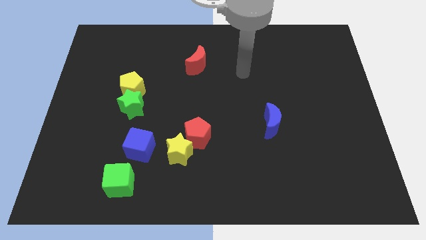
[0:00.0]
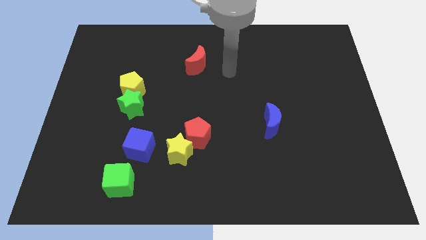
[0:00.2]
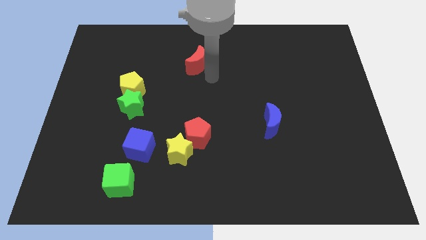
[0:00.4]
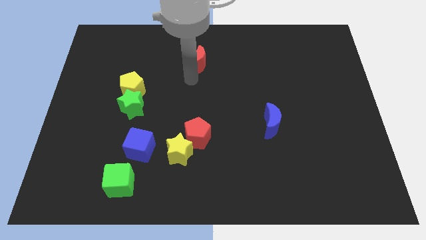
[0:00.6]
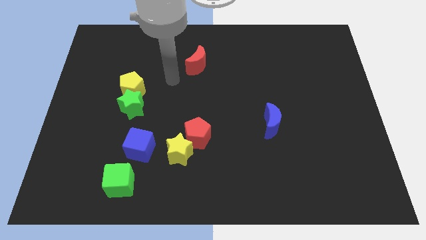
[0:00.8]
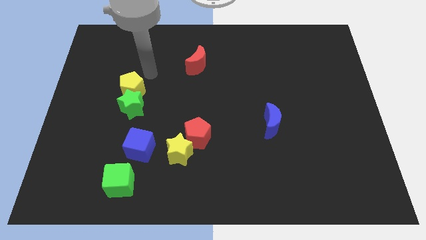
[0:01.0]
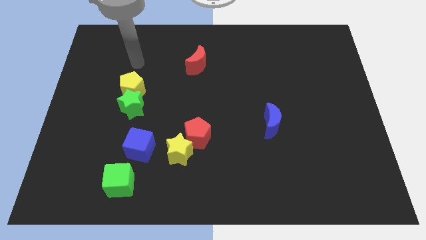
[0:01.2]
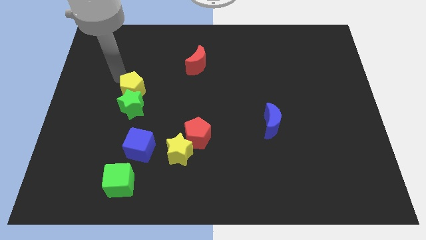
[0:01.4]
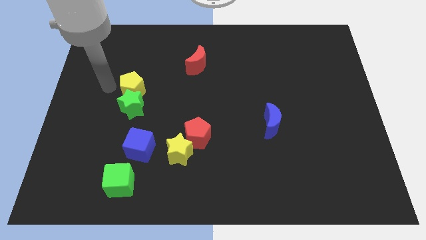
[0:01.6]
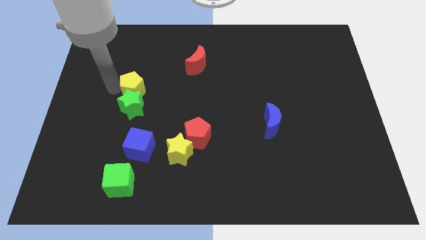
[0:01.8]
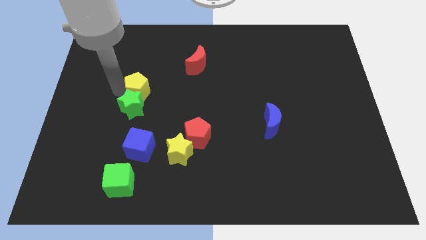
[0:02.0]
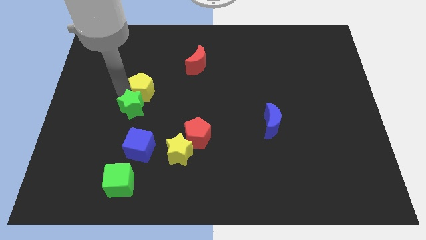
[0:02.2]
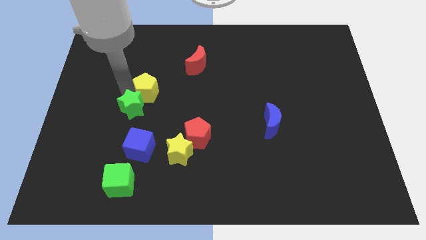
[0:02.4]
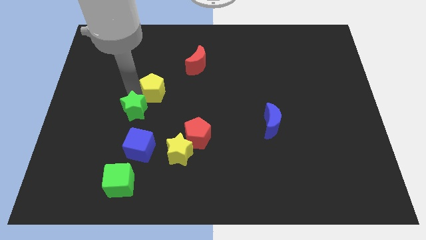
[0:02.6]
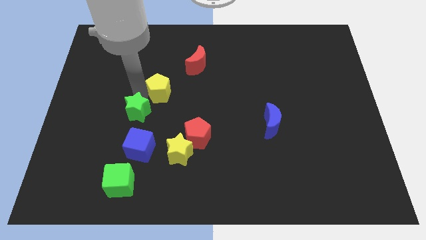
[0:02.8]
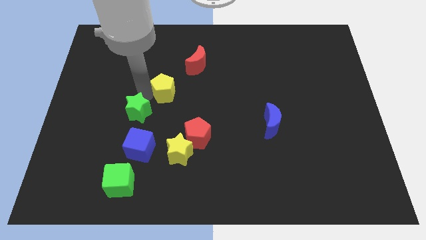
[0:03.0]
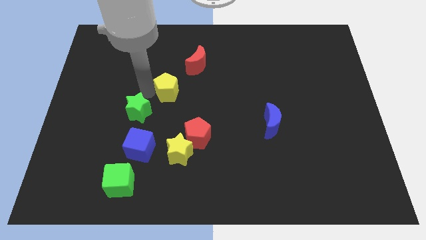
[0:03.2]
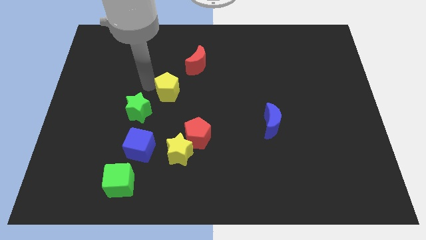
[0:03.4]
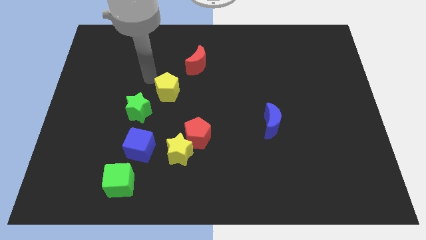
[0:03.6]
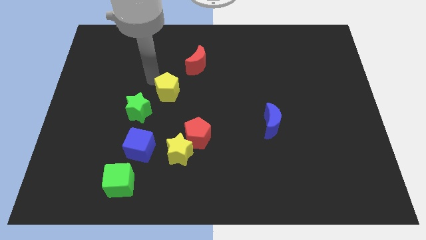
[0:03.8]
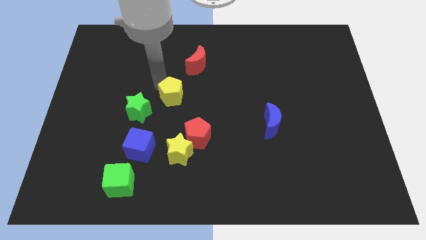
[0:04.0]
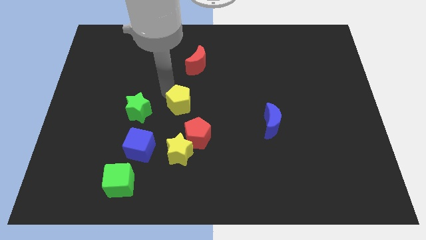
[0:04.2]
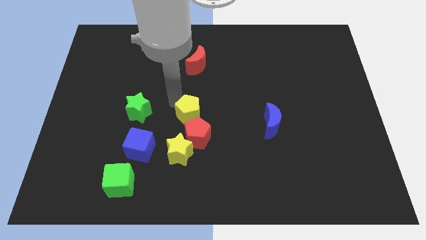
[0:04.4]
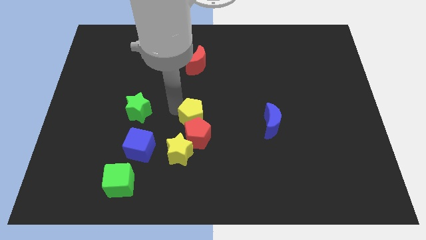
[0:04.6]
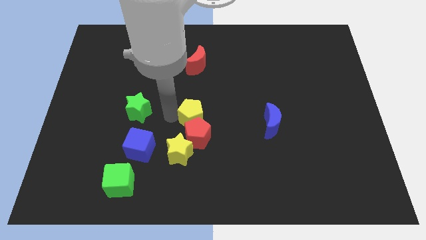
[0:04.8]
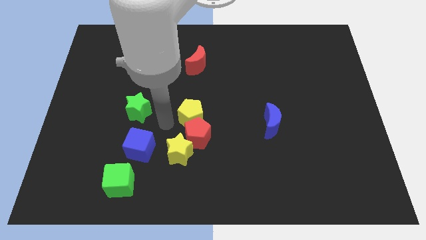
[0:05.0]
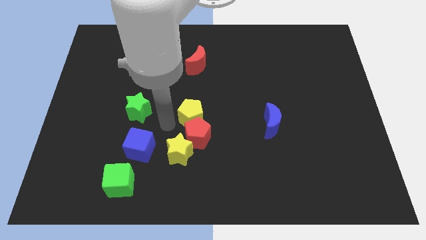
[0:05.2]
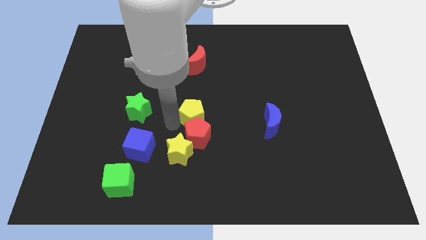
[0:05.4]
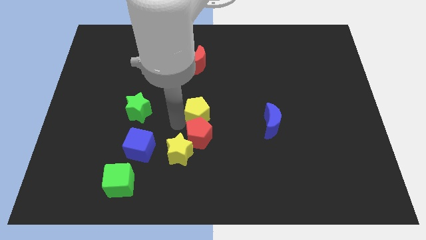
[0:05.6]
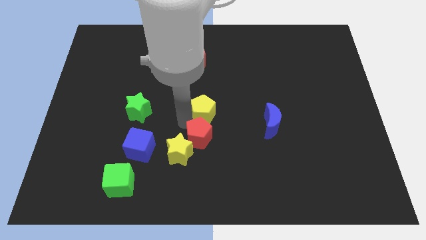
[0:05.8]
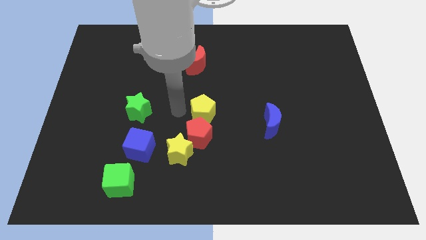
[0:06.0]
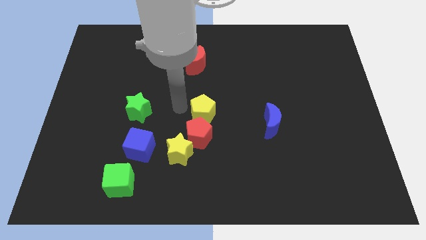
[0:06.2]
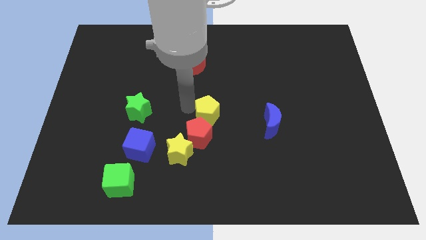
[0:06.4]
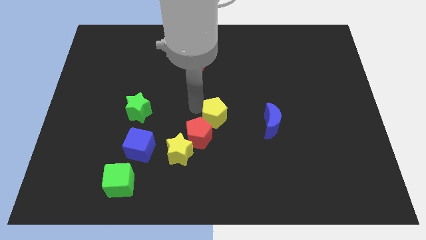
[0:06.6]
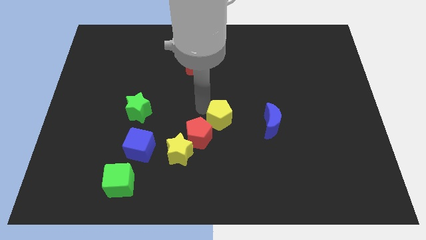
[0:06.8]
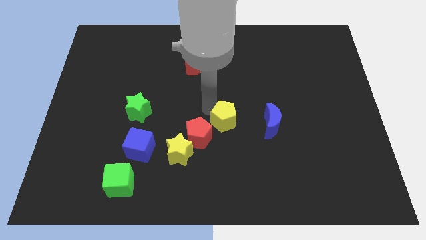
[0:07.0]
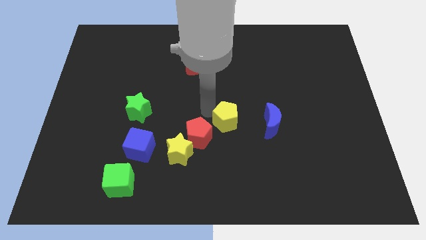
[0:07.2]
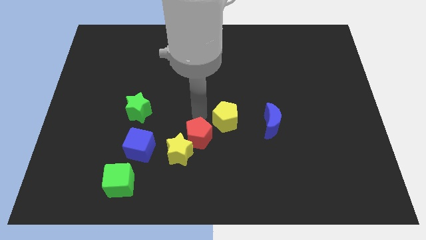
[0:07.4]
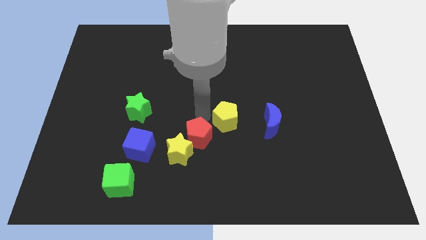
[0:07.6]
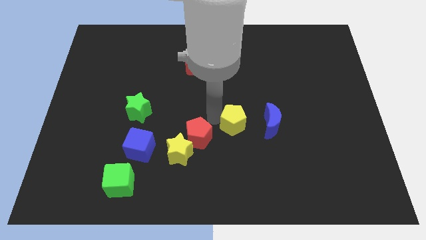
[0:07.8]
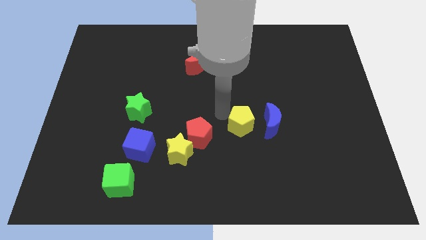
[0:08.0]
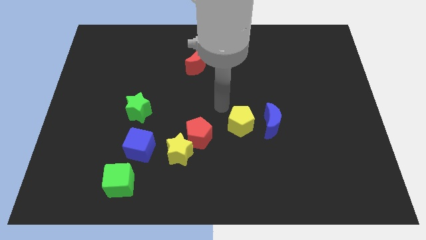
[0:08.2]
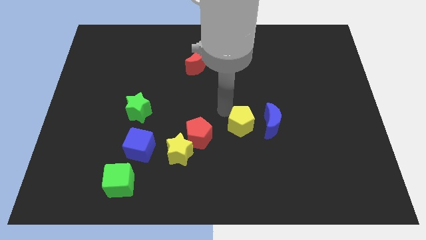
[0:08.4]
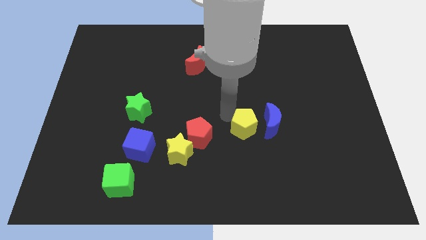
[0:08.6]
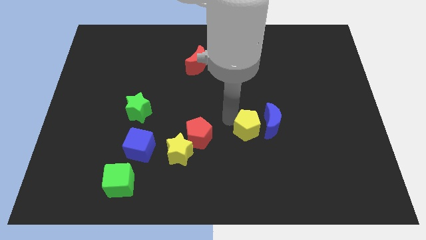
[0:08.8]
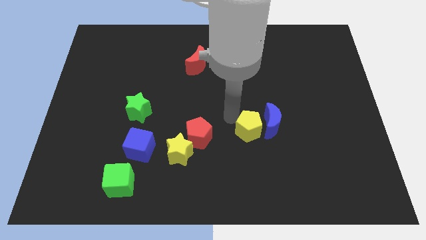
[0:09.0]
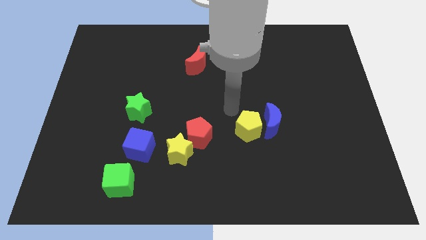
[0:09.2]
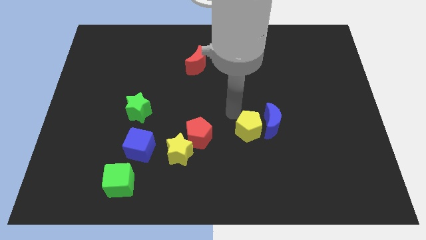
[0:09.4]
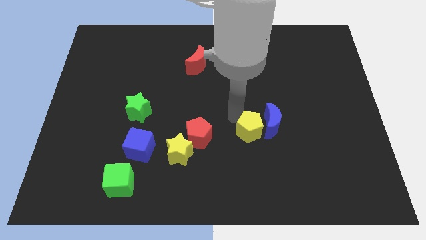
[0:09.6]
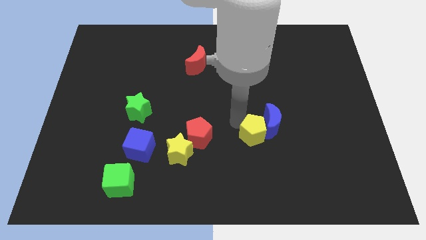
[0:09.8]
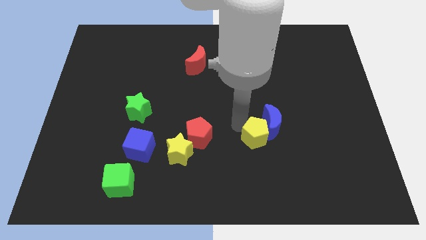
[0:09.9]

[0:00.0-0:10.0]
put the yellow pentagon below the blue moon

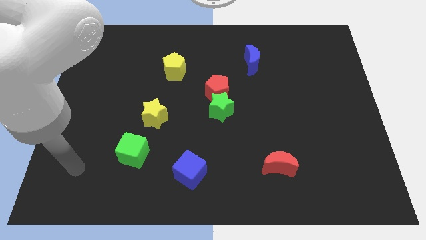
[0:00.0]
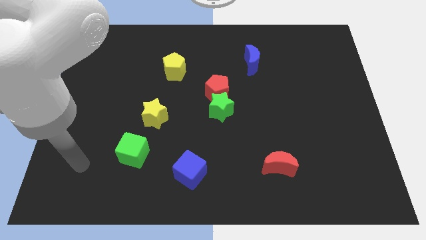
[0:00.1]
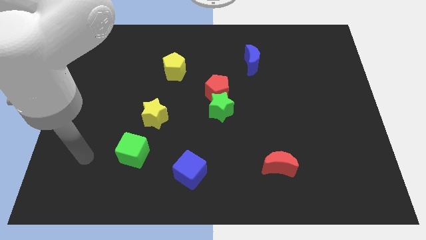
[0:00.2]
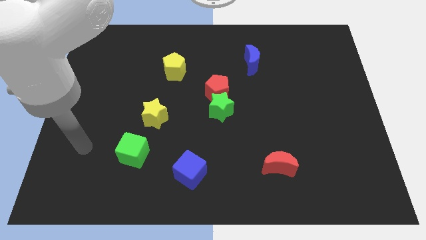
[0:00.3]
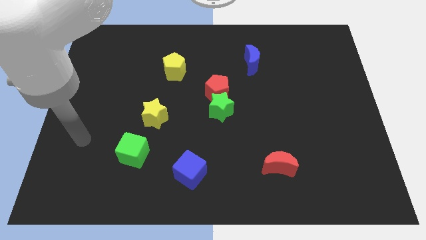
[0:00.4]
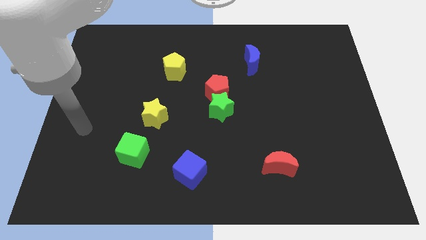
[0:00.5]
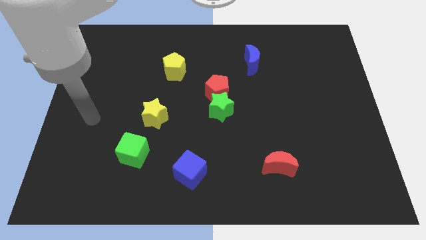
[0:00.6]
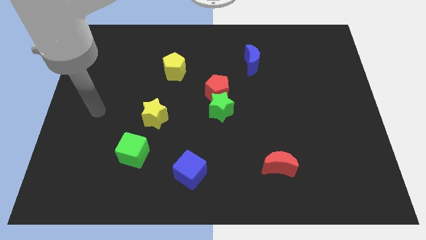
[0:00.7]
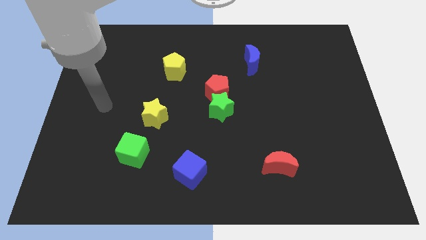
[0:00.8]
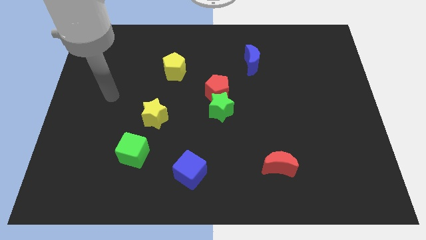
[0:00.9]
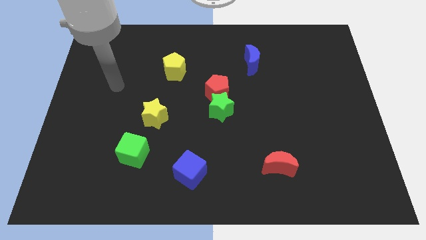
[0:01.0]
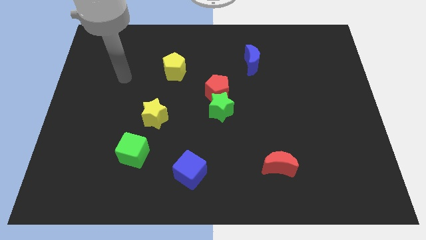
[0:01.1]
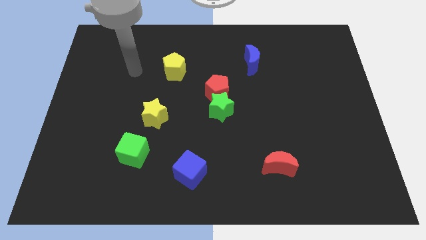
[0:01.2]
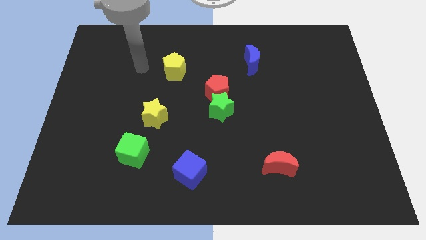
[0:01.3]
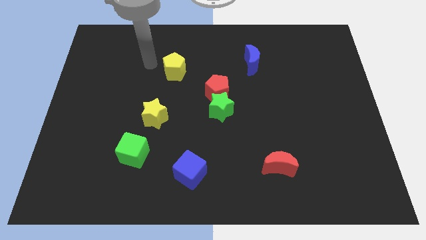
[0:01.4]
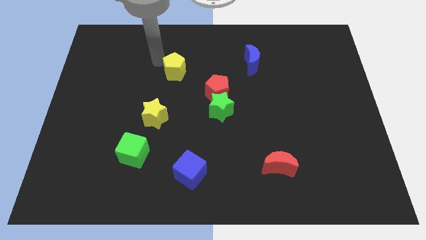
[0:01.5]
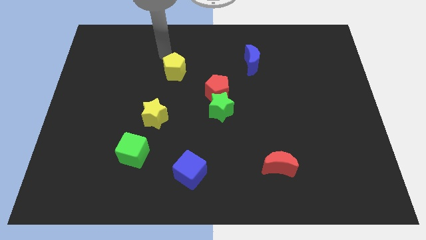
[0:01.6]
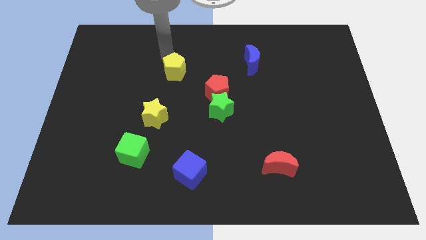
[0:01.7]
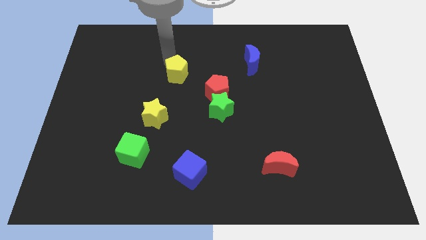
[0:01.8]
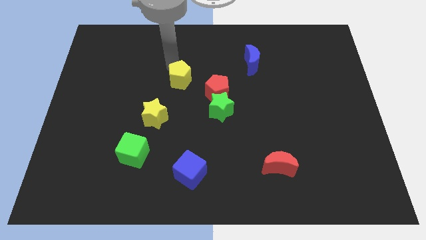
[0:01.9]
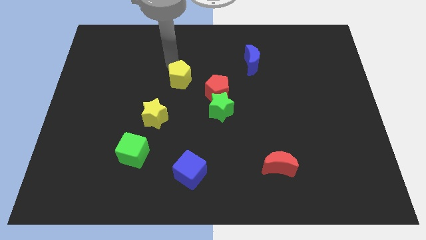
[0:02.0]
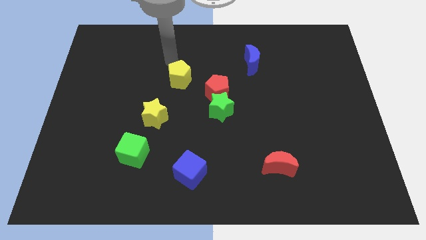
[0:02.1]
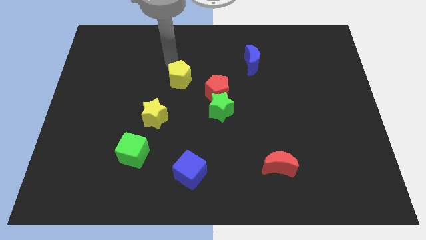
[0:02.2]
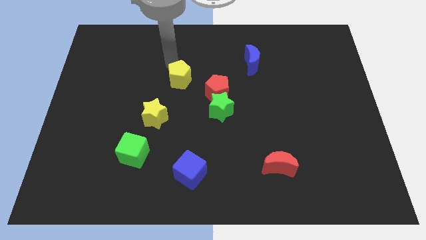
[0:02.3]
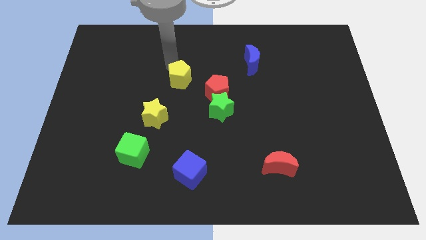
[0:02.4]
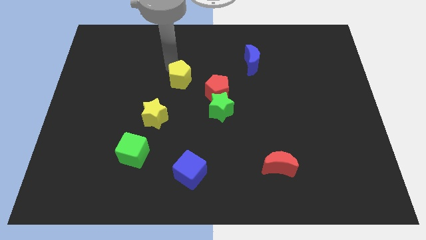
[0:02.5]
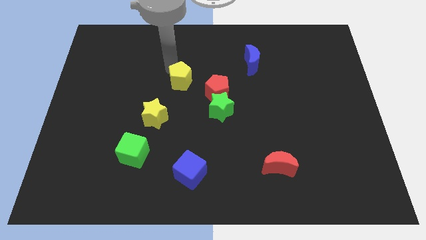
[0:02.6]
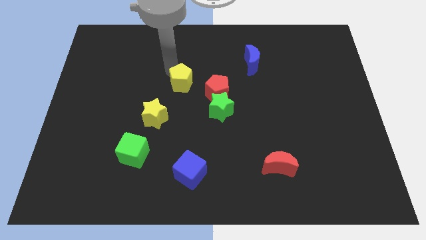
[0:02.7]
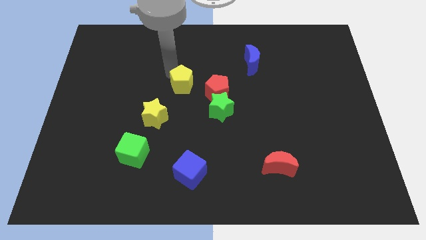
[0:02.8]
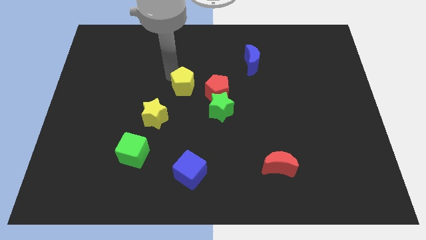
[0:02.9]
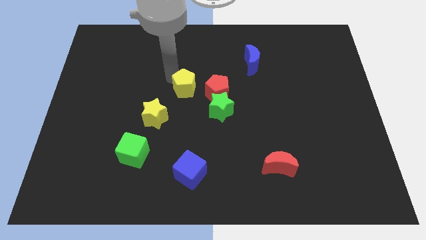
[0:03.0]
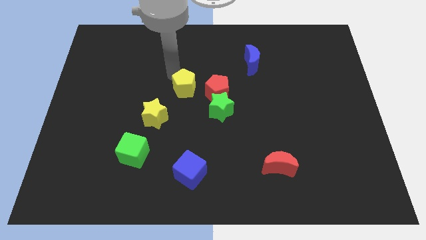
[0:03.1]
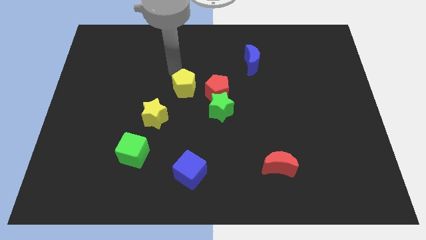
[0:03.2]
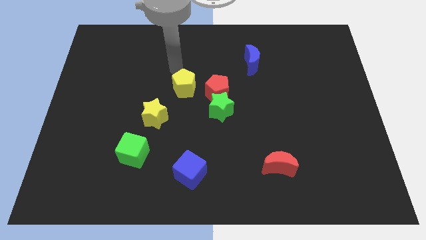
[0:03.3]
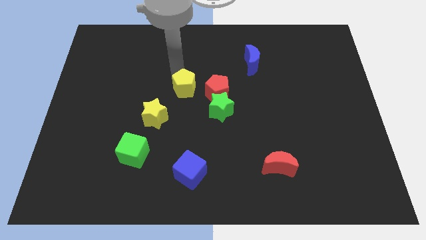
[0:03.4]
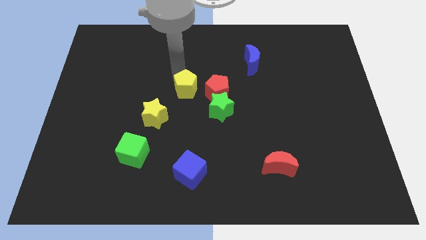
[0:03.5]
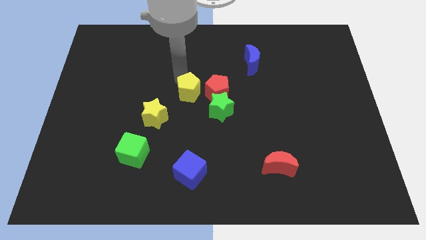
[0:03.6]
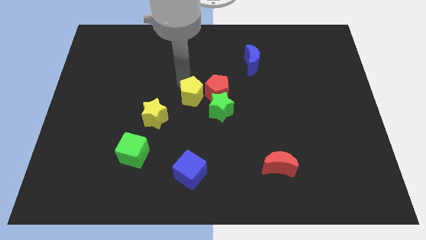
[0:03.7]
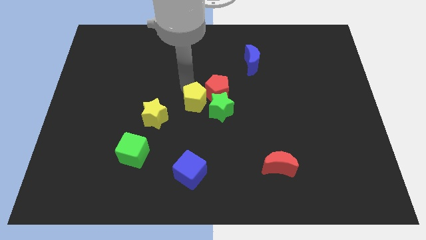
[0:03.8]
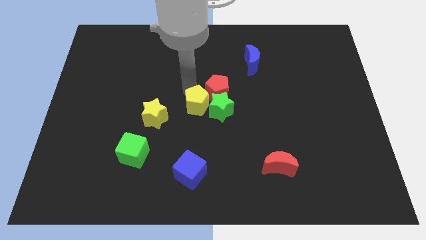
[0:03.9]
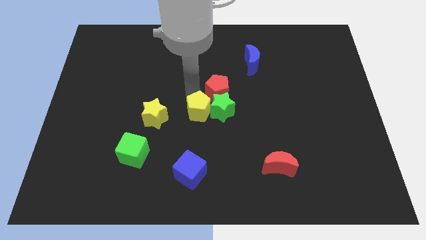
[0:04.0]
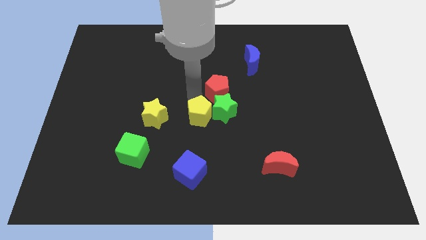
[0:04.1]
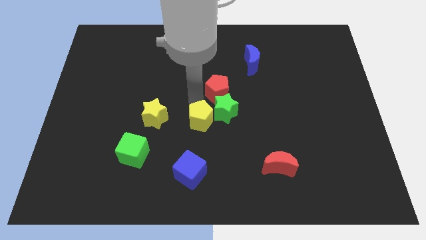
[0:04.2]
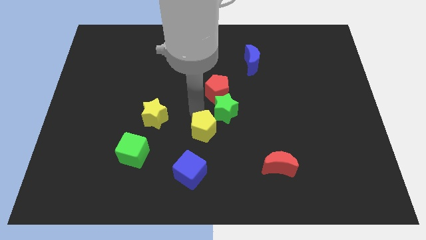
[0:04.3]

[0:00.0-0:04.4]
slide the yellow pentagon below the green star
